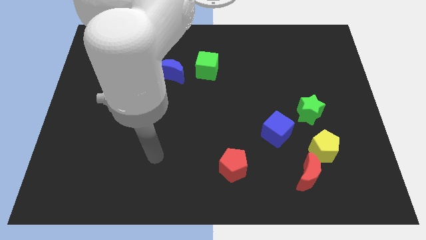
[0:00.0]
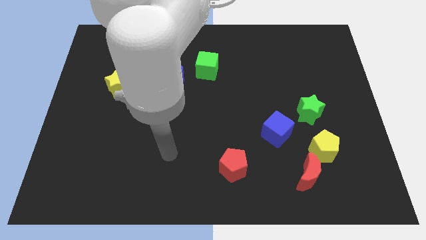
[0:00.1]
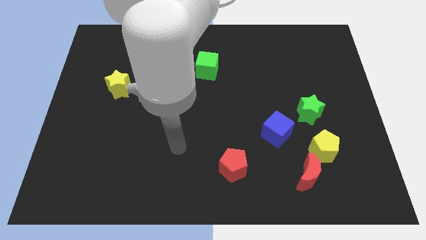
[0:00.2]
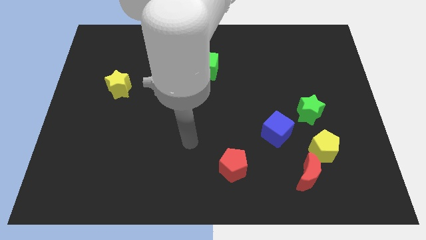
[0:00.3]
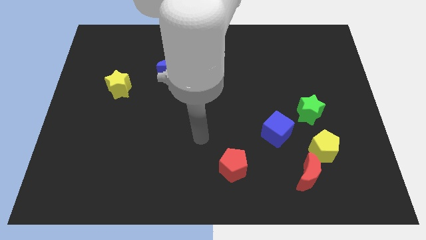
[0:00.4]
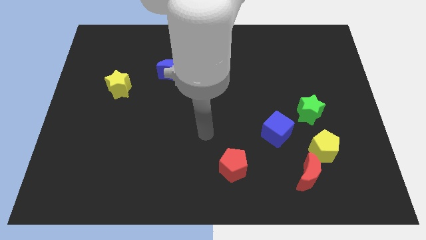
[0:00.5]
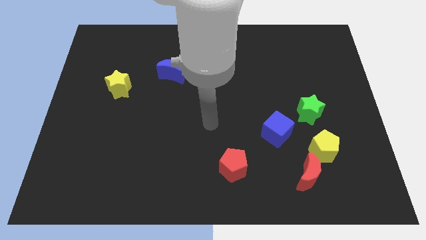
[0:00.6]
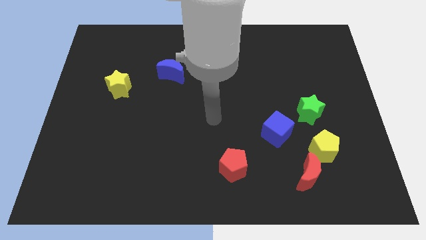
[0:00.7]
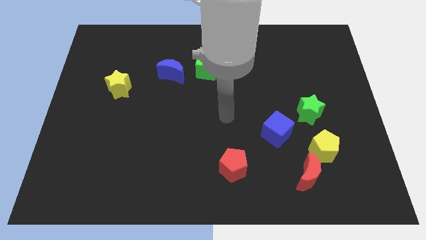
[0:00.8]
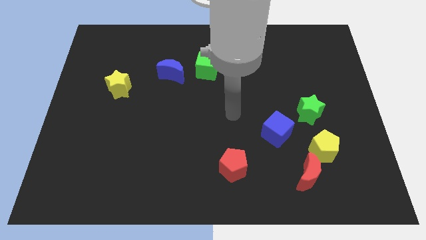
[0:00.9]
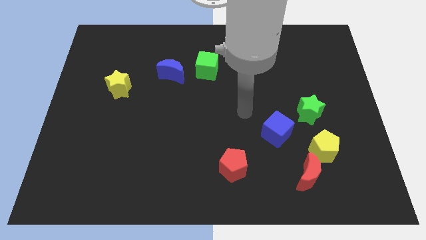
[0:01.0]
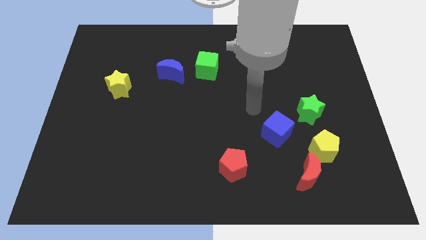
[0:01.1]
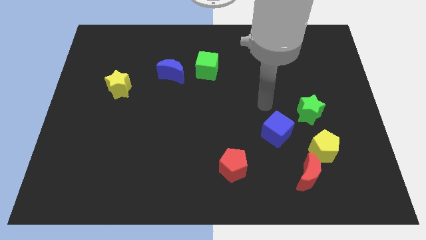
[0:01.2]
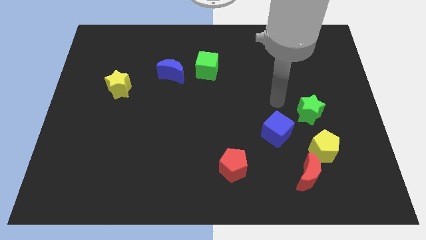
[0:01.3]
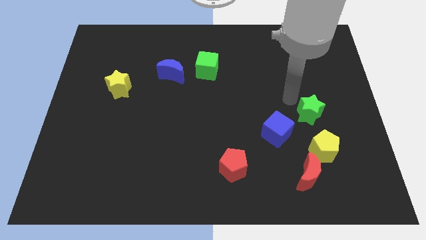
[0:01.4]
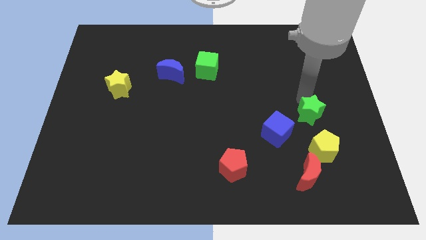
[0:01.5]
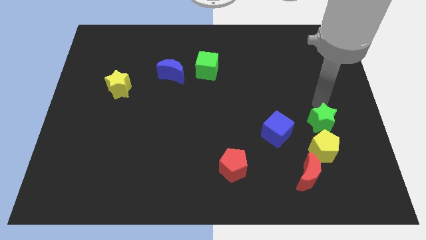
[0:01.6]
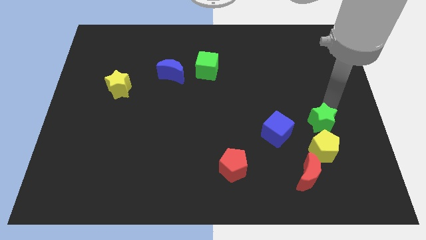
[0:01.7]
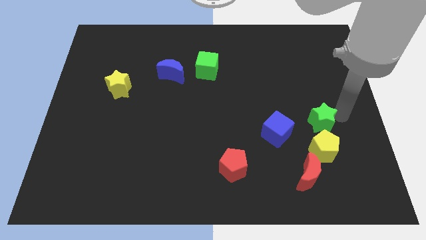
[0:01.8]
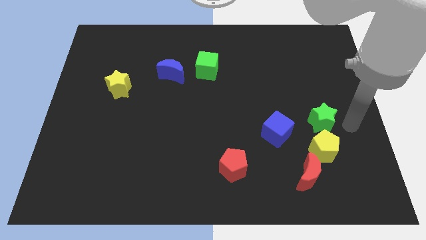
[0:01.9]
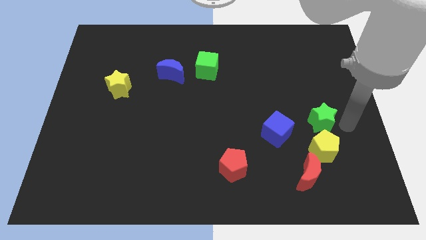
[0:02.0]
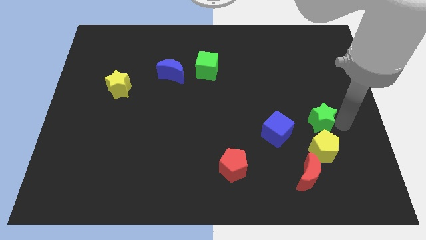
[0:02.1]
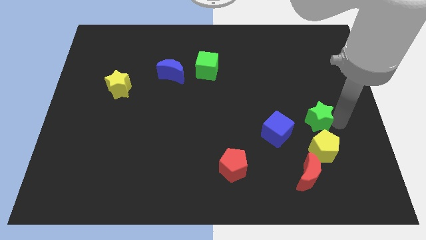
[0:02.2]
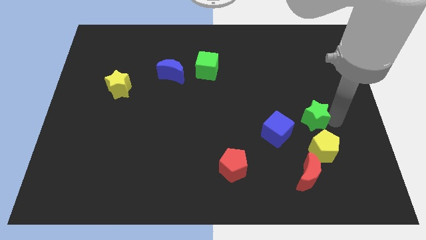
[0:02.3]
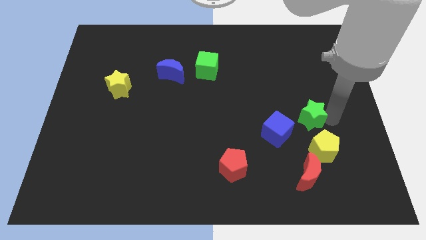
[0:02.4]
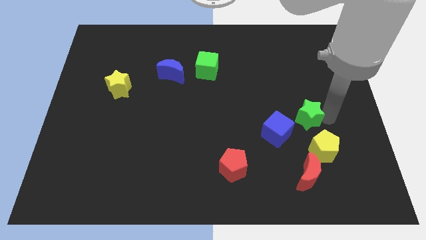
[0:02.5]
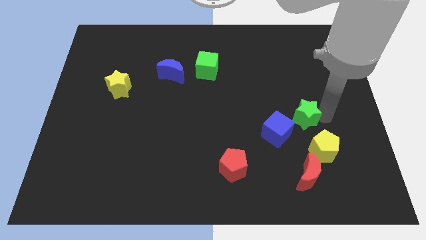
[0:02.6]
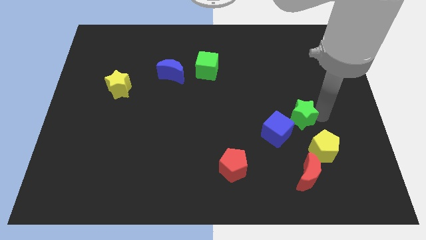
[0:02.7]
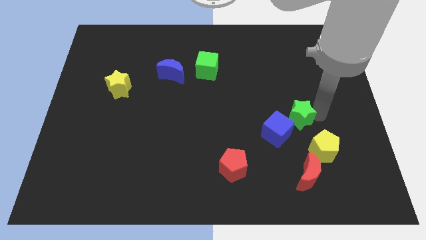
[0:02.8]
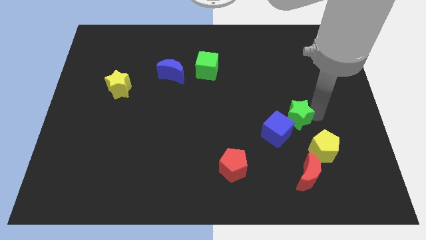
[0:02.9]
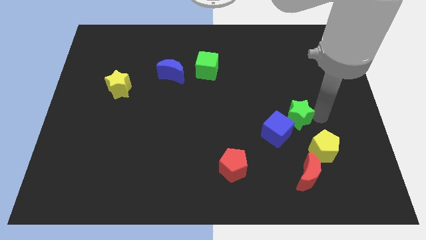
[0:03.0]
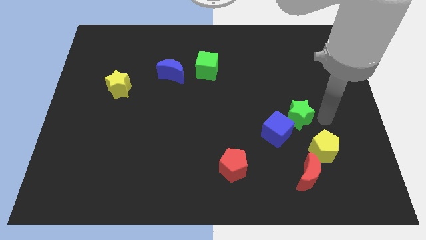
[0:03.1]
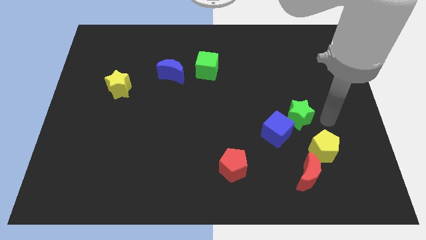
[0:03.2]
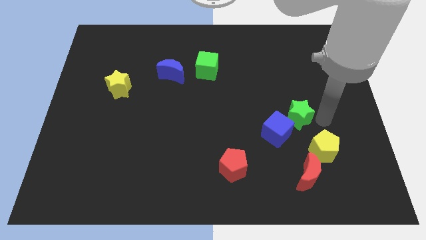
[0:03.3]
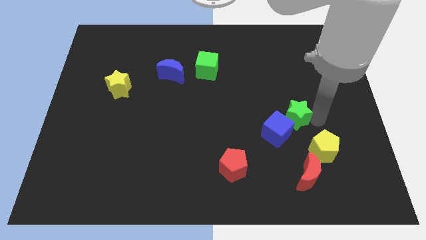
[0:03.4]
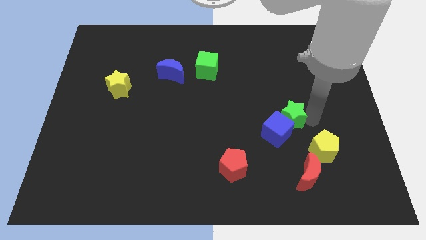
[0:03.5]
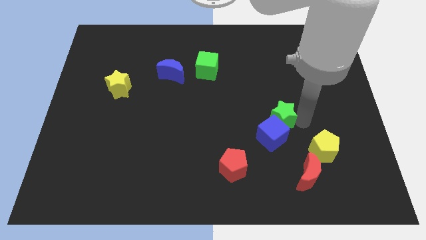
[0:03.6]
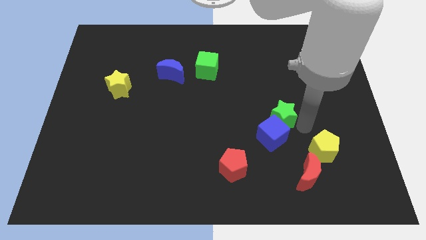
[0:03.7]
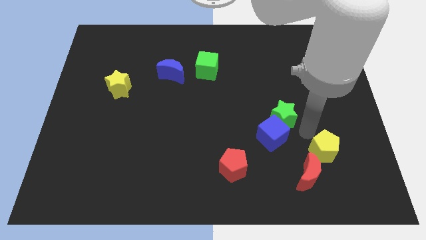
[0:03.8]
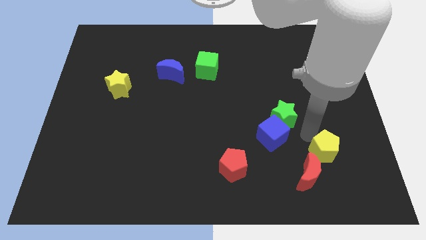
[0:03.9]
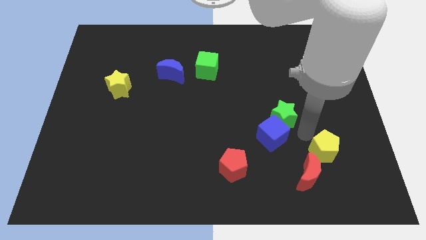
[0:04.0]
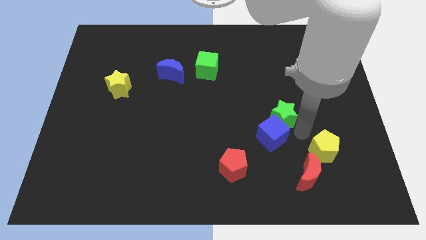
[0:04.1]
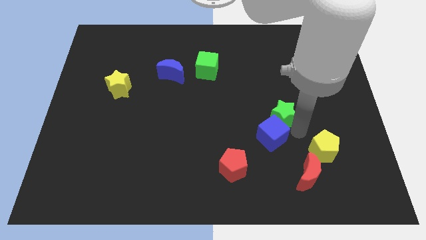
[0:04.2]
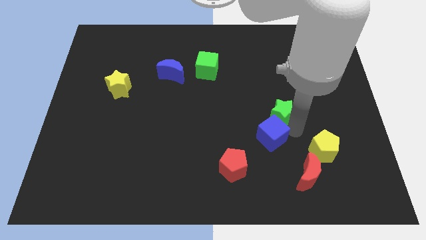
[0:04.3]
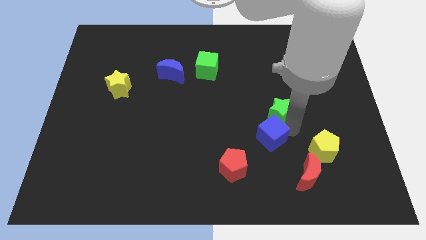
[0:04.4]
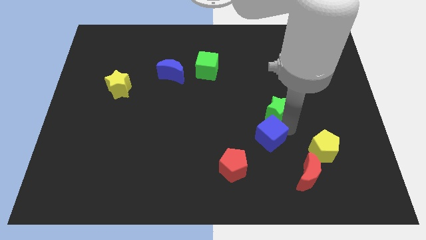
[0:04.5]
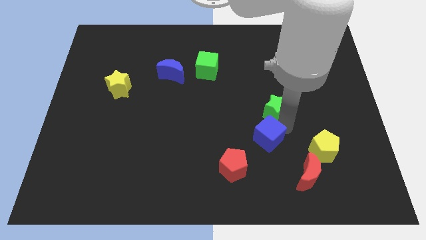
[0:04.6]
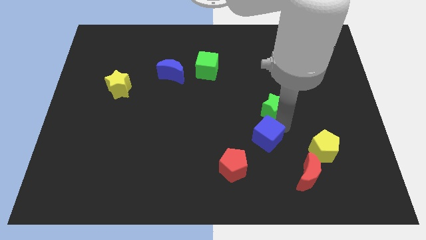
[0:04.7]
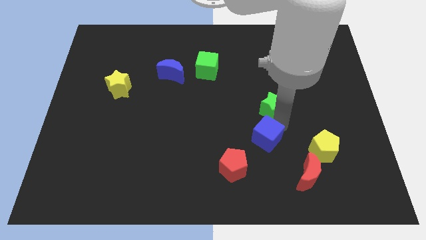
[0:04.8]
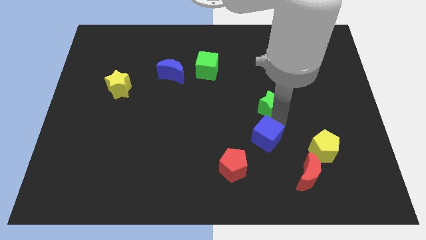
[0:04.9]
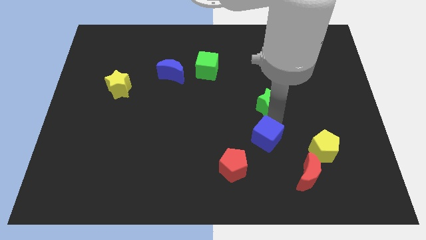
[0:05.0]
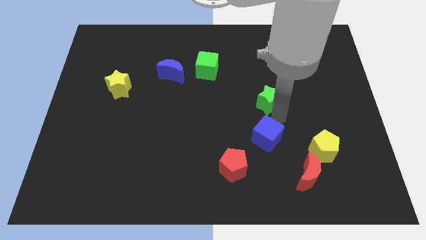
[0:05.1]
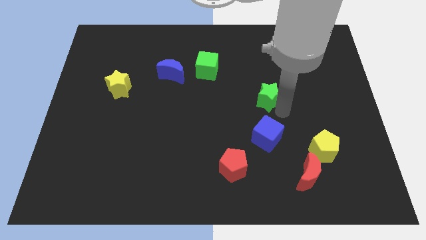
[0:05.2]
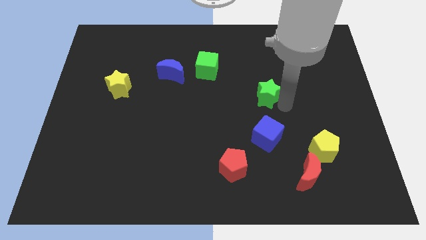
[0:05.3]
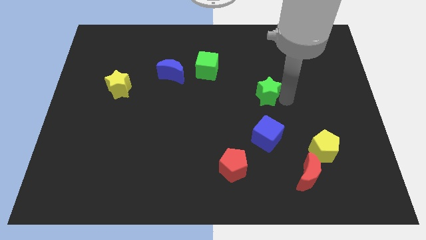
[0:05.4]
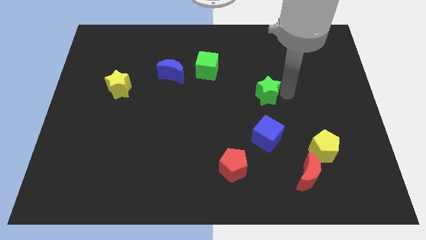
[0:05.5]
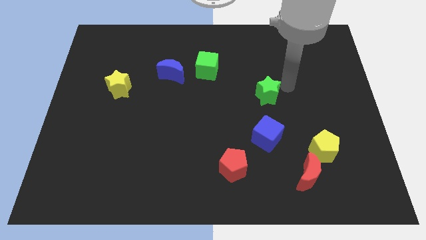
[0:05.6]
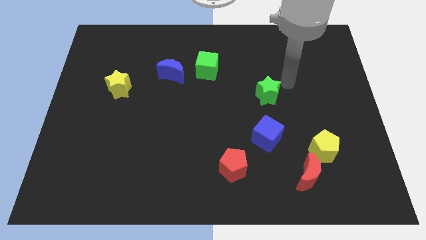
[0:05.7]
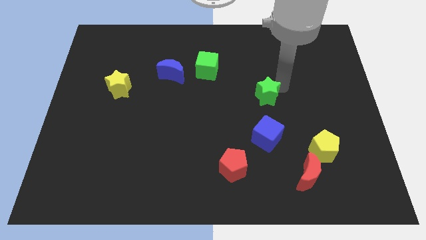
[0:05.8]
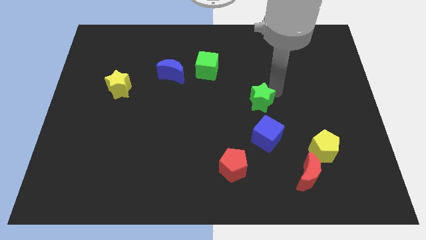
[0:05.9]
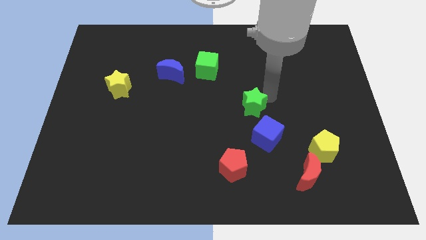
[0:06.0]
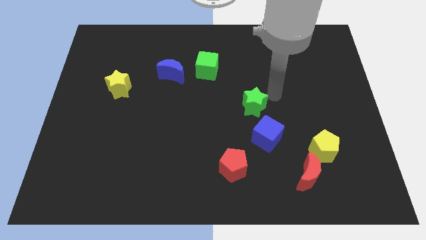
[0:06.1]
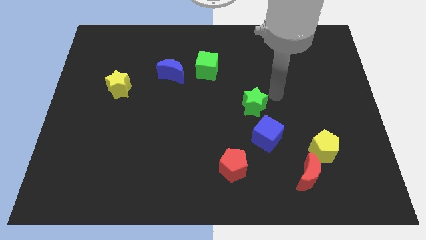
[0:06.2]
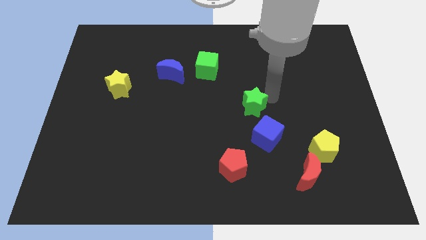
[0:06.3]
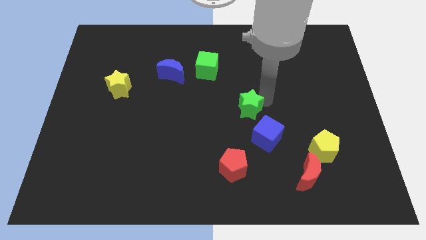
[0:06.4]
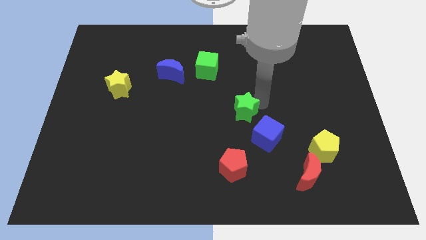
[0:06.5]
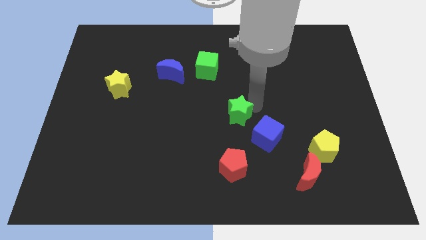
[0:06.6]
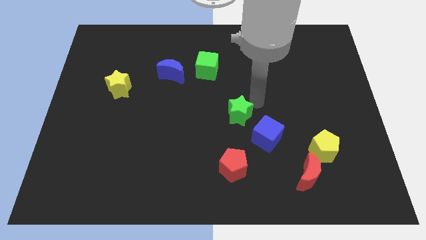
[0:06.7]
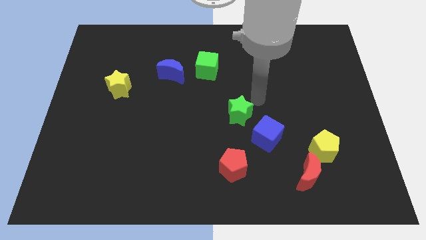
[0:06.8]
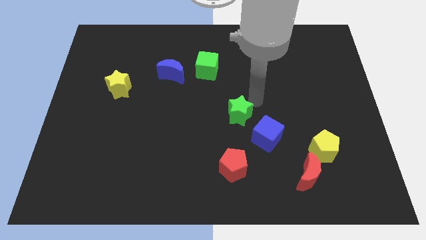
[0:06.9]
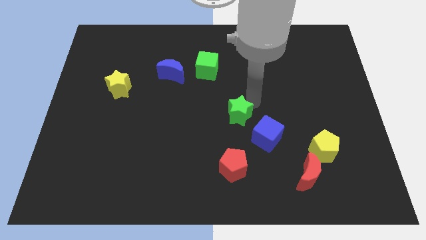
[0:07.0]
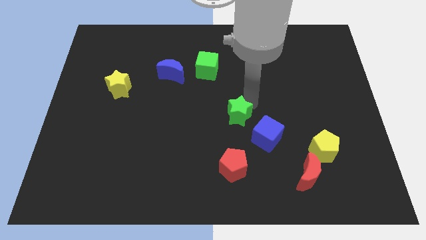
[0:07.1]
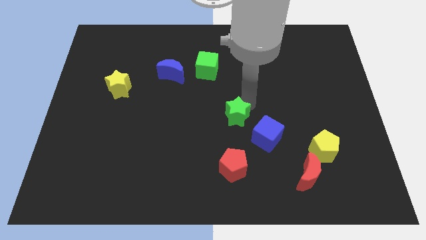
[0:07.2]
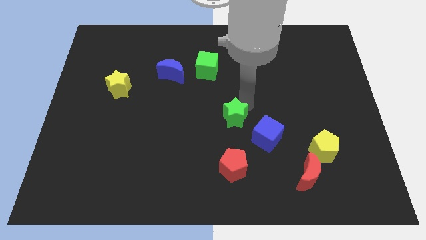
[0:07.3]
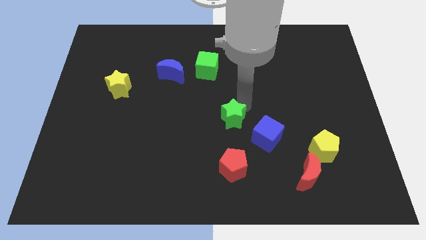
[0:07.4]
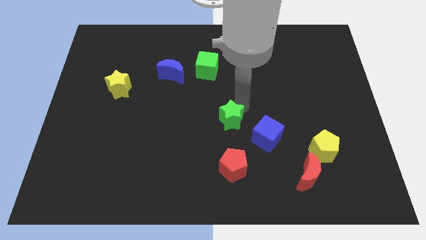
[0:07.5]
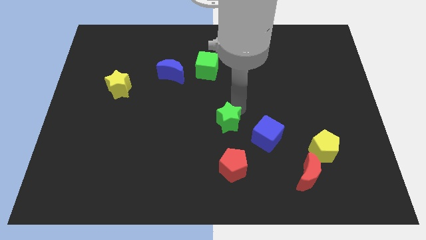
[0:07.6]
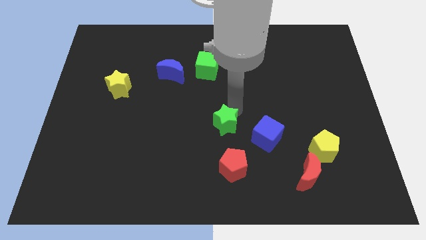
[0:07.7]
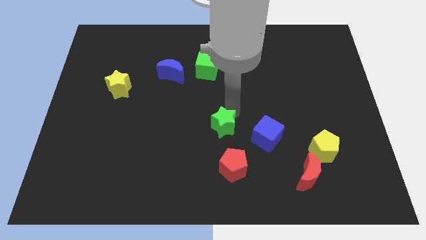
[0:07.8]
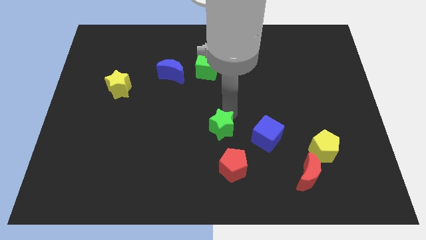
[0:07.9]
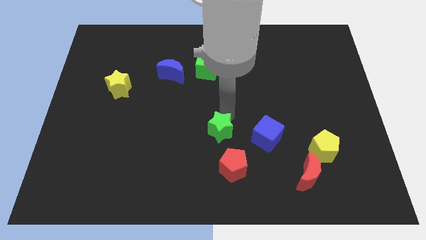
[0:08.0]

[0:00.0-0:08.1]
push the green star diagonally up and to the left of the red pentagon

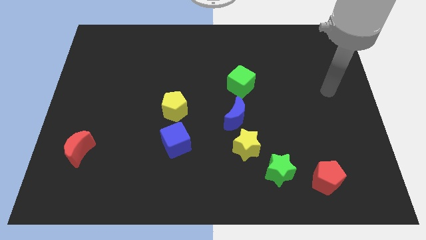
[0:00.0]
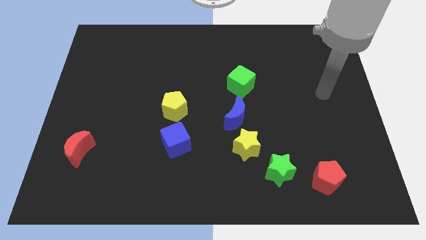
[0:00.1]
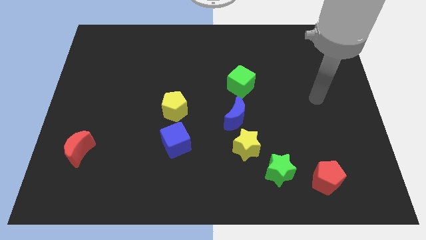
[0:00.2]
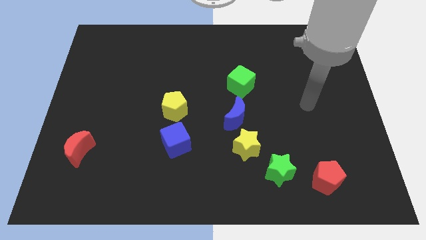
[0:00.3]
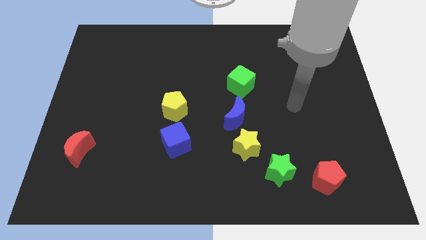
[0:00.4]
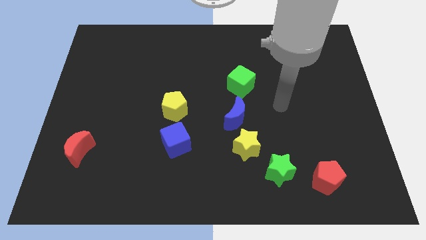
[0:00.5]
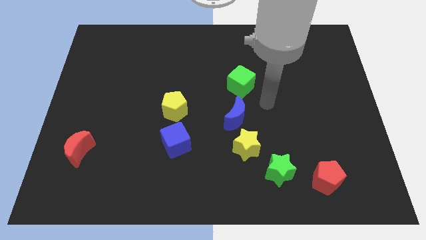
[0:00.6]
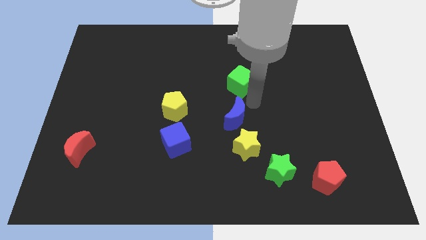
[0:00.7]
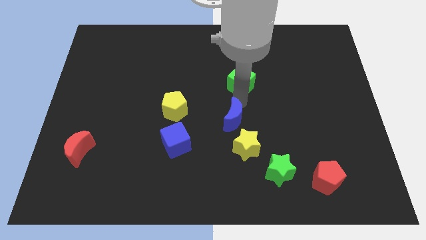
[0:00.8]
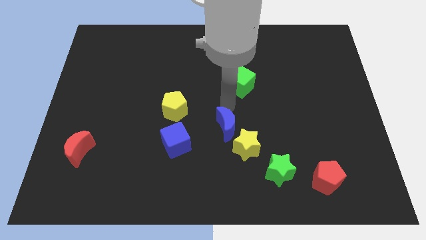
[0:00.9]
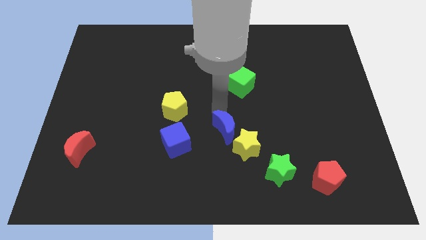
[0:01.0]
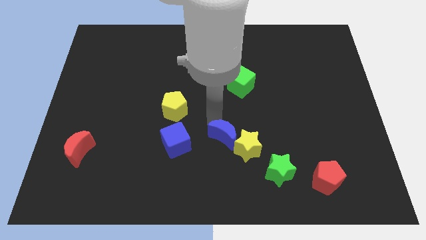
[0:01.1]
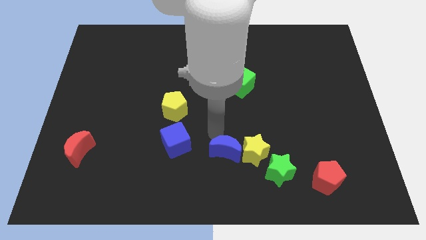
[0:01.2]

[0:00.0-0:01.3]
slide the yellow star to the top side of the green star
